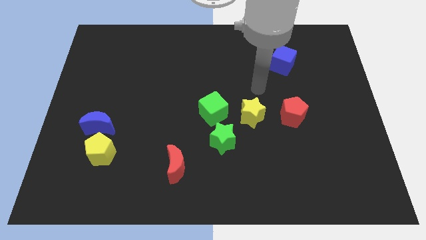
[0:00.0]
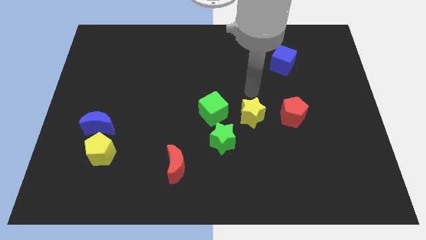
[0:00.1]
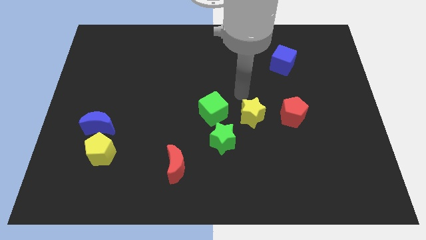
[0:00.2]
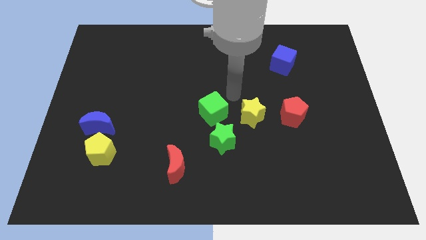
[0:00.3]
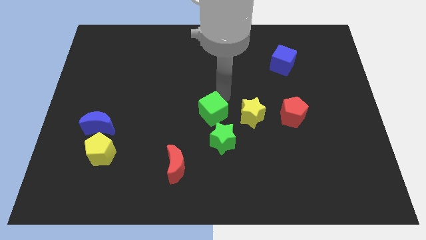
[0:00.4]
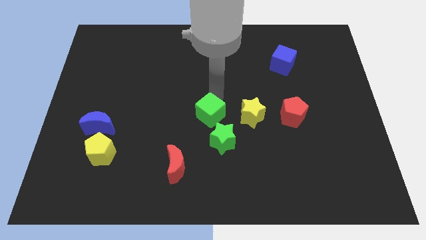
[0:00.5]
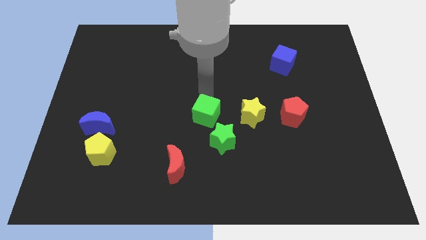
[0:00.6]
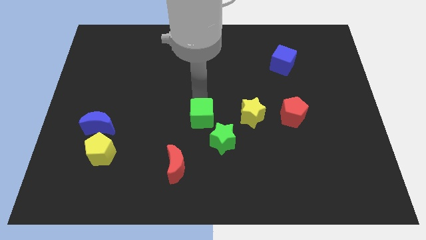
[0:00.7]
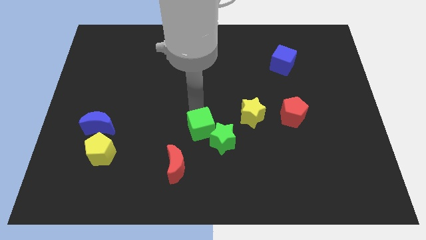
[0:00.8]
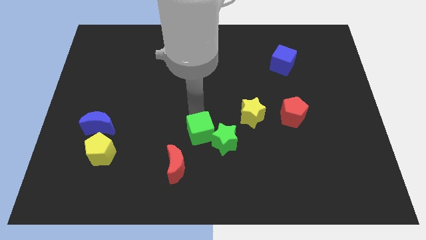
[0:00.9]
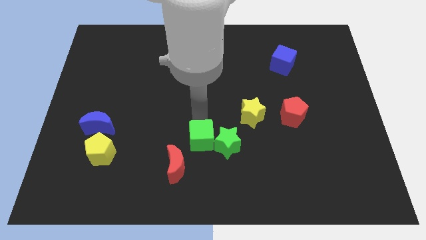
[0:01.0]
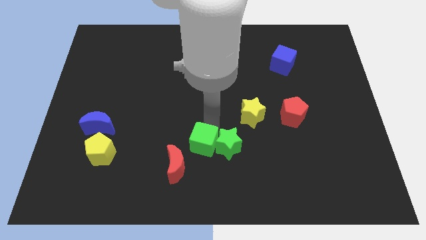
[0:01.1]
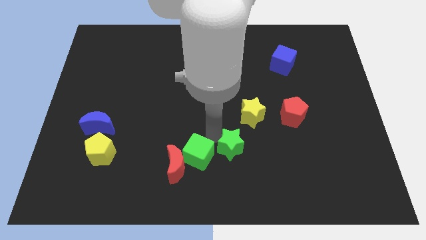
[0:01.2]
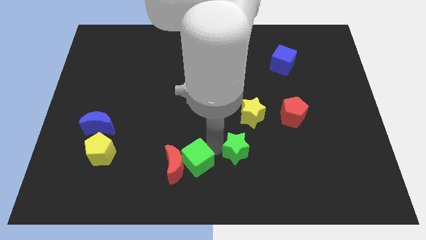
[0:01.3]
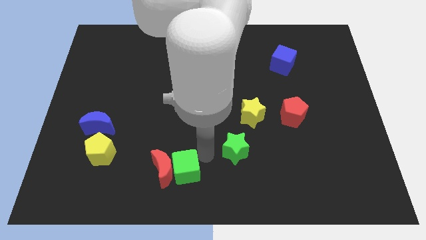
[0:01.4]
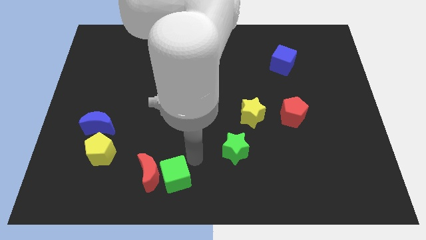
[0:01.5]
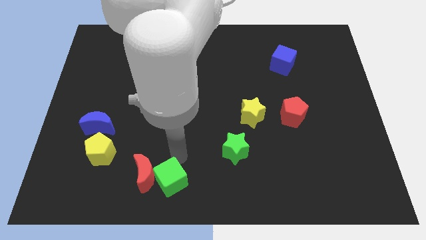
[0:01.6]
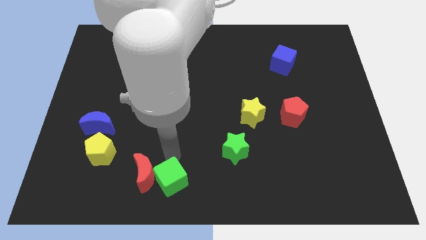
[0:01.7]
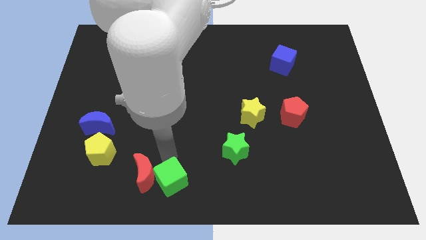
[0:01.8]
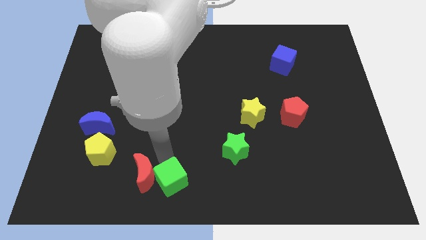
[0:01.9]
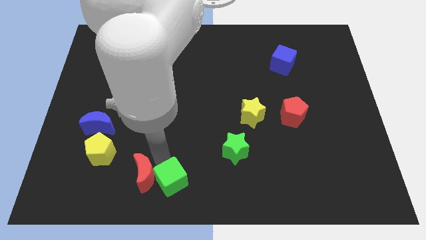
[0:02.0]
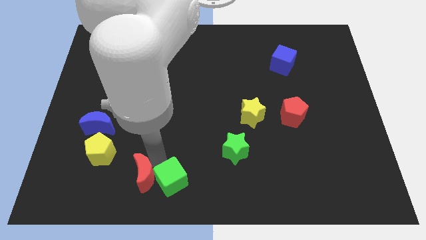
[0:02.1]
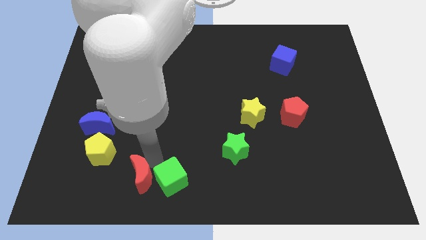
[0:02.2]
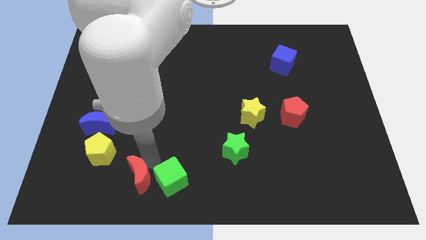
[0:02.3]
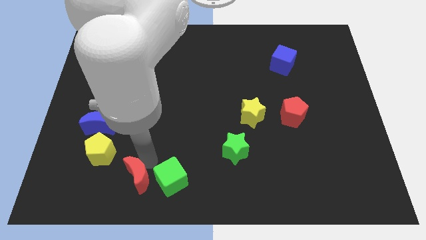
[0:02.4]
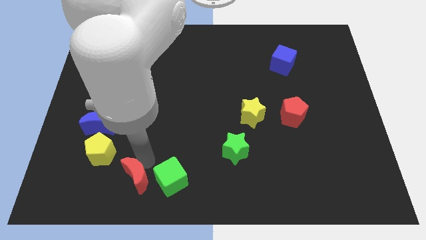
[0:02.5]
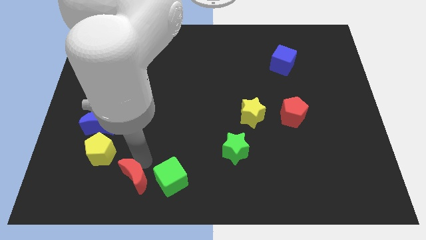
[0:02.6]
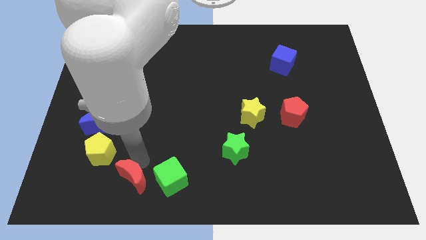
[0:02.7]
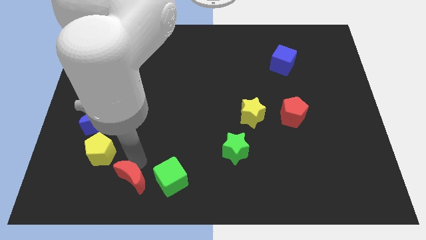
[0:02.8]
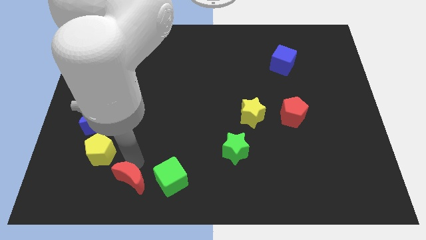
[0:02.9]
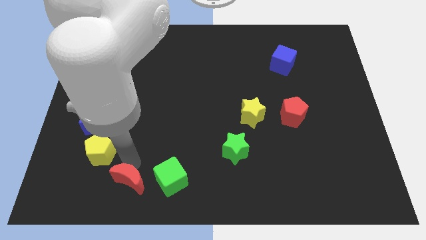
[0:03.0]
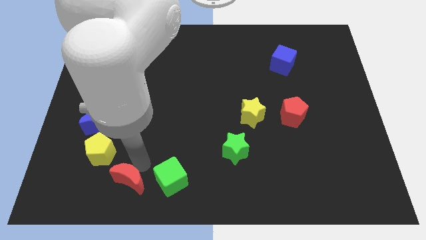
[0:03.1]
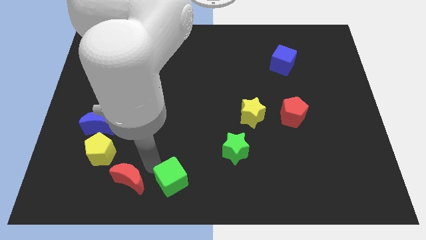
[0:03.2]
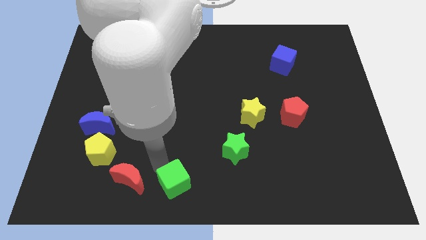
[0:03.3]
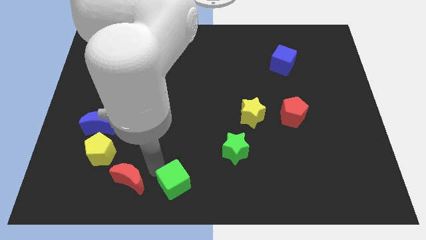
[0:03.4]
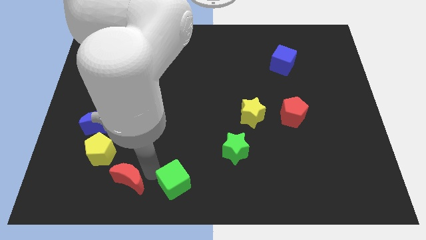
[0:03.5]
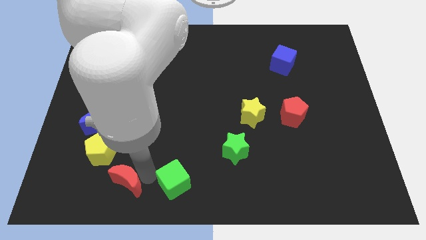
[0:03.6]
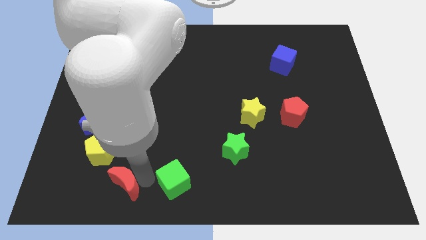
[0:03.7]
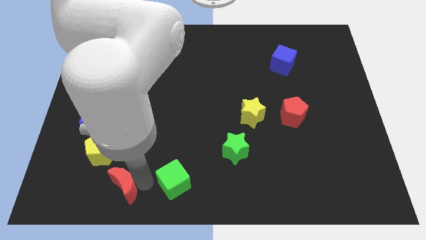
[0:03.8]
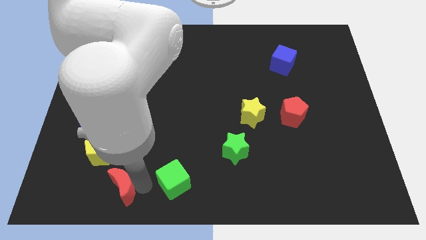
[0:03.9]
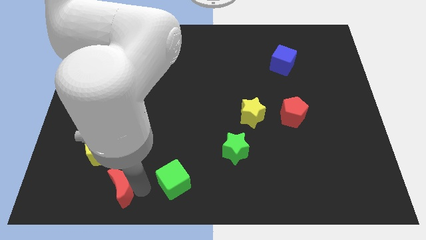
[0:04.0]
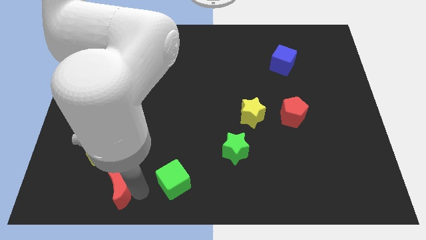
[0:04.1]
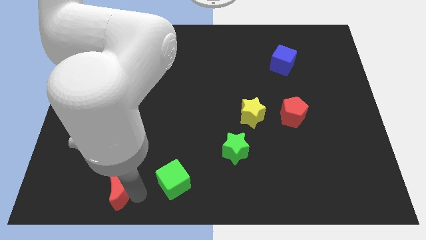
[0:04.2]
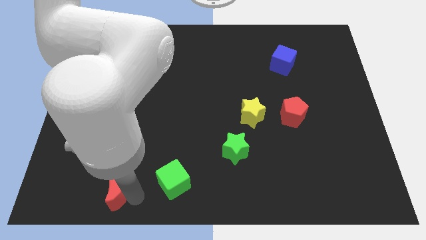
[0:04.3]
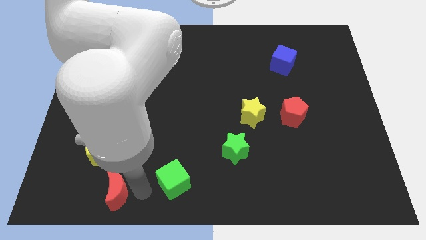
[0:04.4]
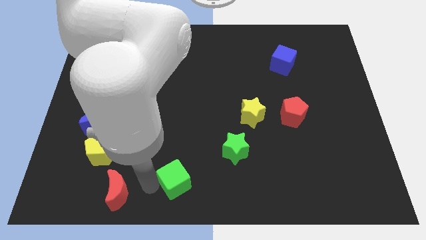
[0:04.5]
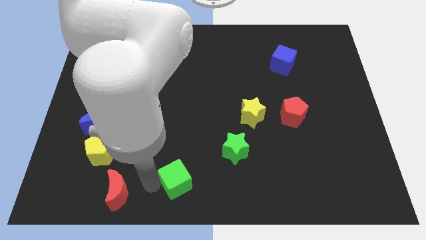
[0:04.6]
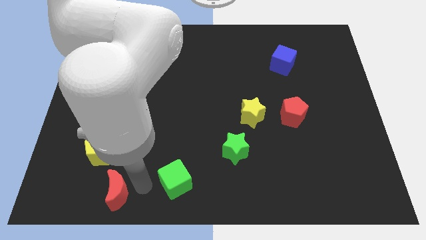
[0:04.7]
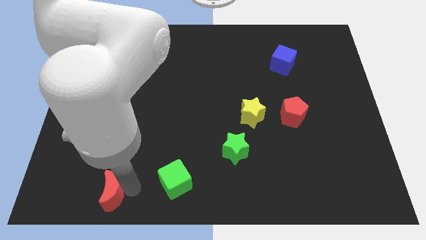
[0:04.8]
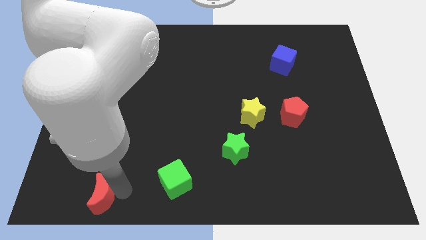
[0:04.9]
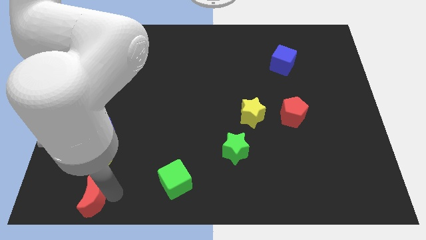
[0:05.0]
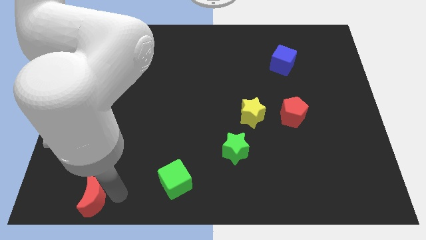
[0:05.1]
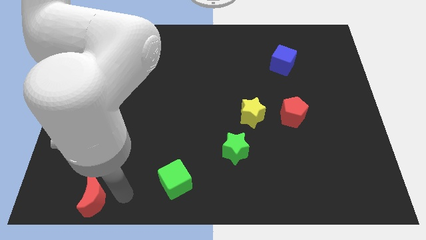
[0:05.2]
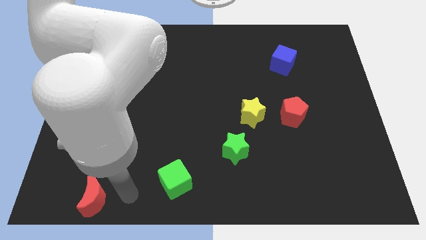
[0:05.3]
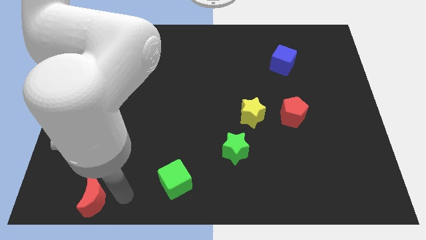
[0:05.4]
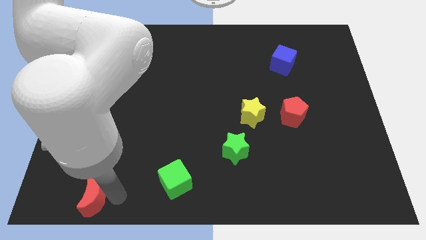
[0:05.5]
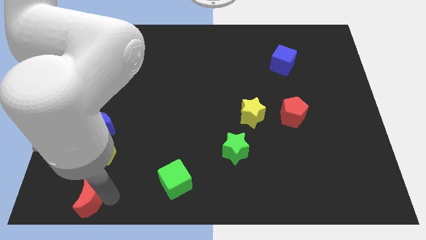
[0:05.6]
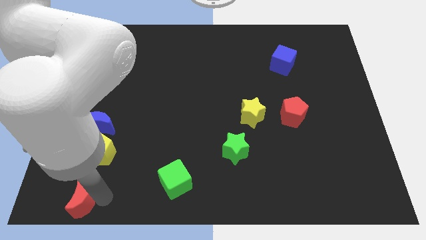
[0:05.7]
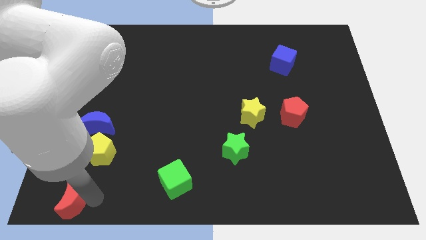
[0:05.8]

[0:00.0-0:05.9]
put the red moon to the bottom left of the board
